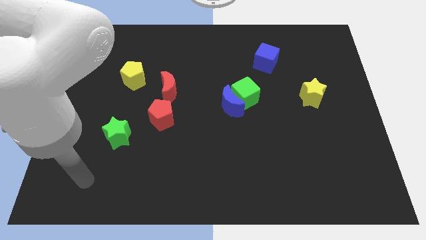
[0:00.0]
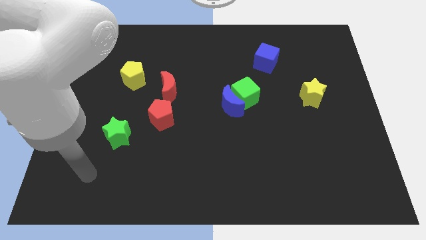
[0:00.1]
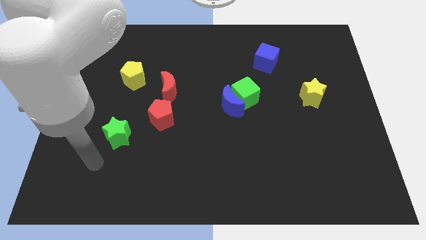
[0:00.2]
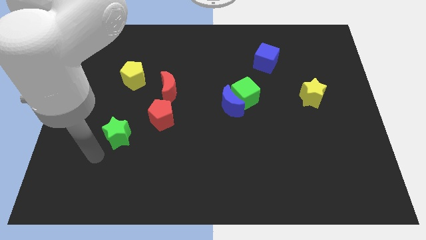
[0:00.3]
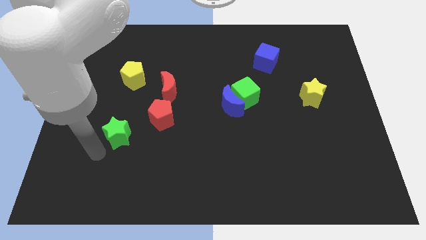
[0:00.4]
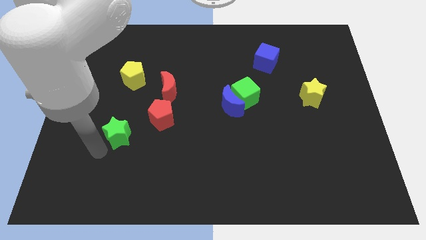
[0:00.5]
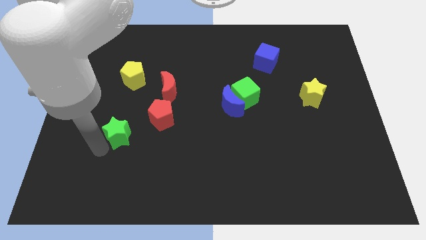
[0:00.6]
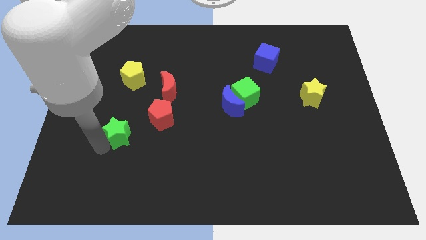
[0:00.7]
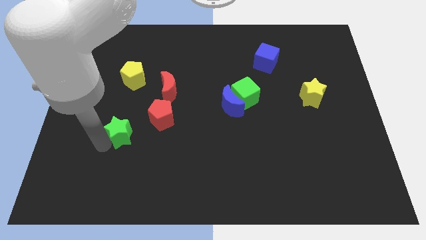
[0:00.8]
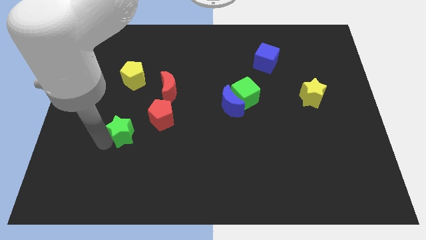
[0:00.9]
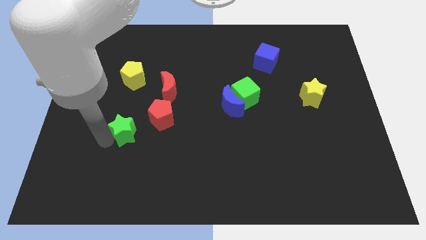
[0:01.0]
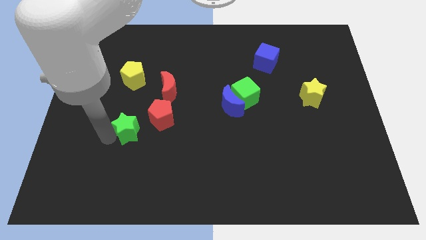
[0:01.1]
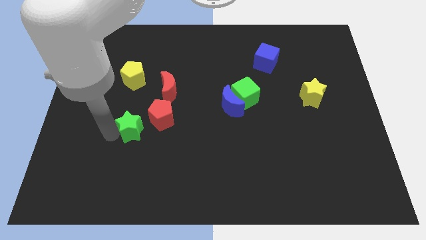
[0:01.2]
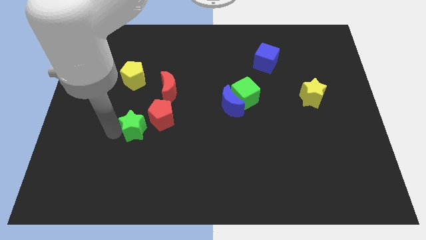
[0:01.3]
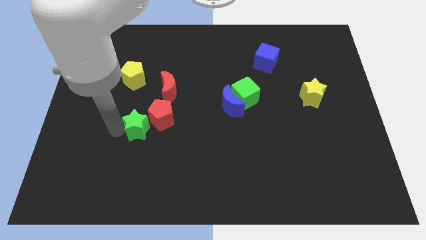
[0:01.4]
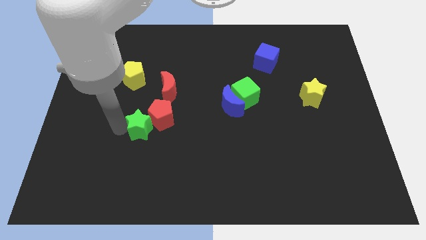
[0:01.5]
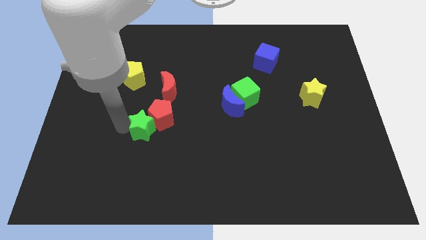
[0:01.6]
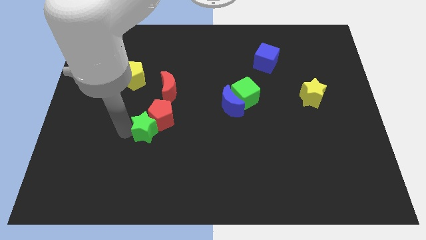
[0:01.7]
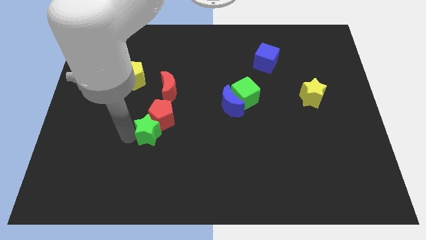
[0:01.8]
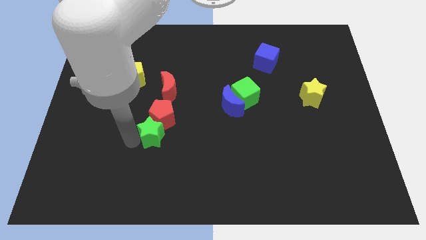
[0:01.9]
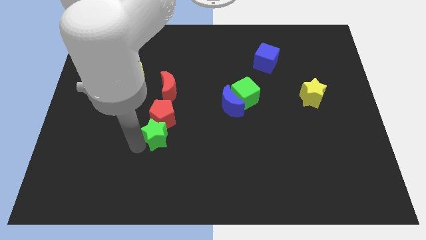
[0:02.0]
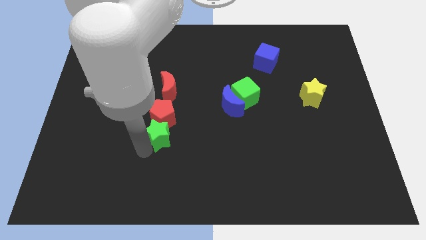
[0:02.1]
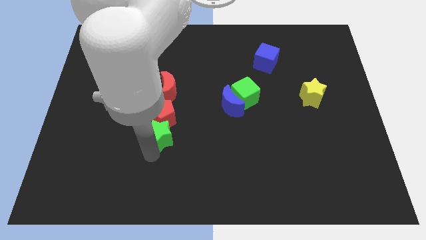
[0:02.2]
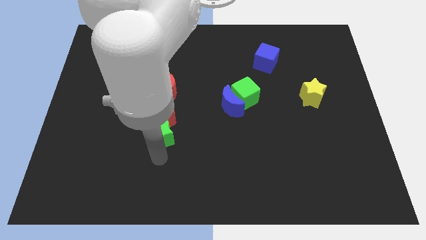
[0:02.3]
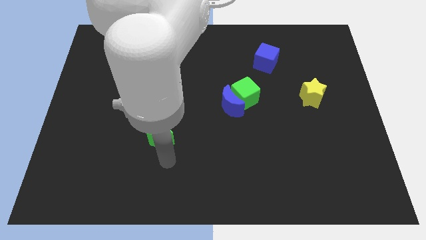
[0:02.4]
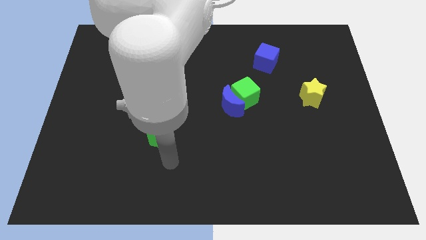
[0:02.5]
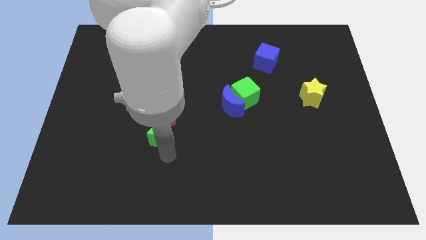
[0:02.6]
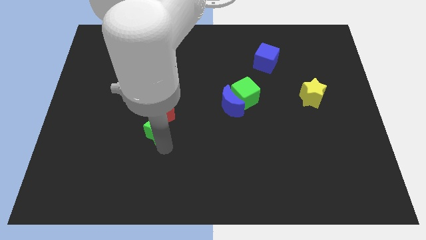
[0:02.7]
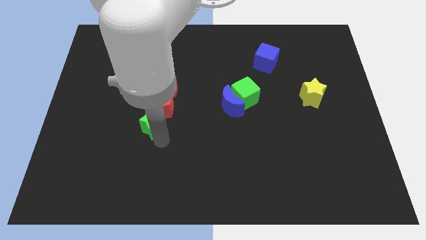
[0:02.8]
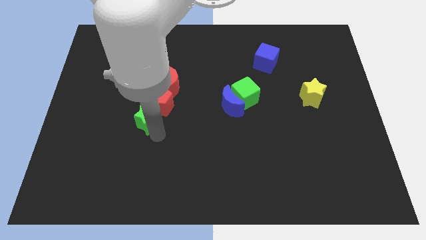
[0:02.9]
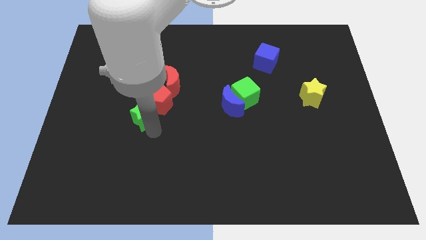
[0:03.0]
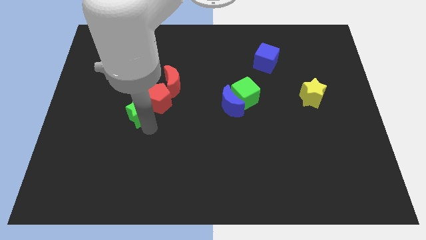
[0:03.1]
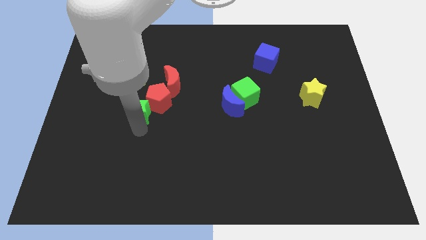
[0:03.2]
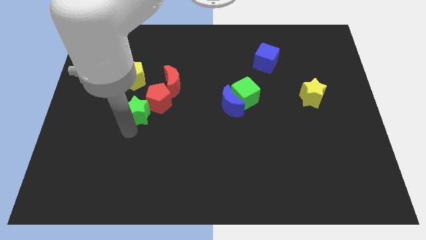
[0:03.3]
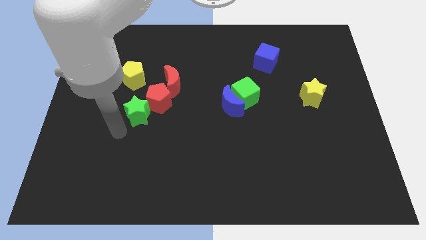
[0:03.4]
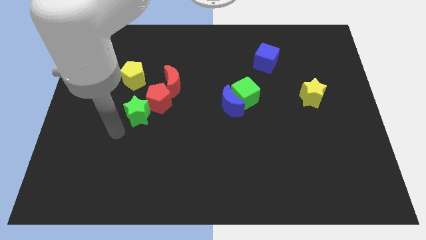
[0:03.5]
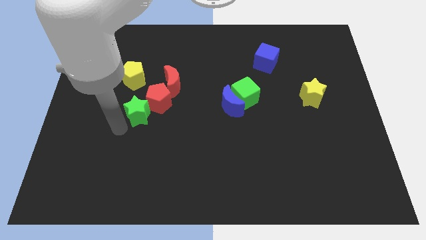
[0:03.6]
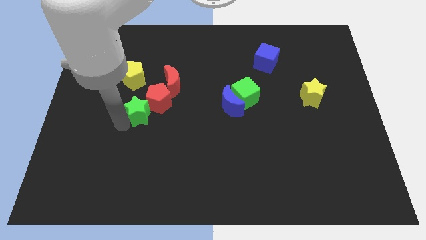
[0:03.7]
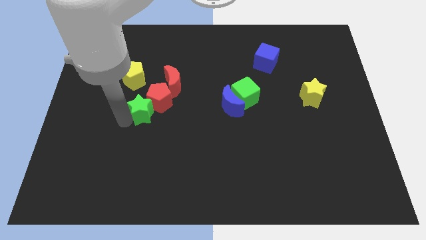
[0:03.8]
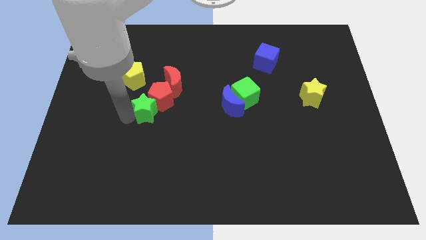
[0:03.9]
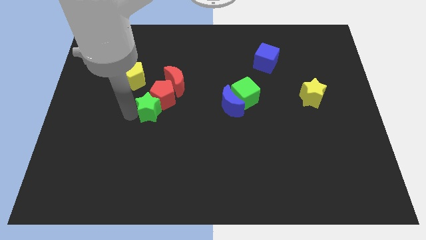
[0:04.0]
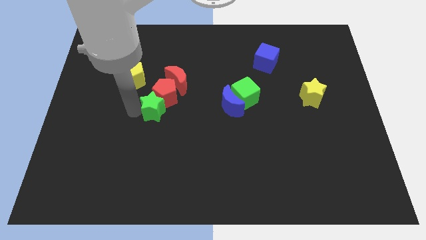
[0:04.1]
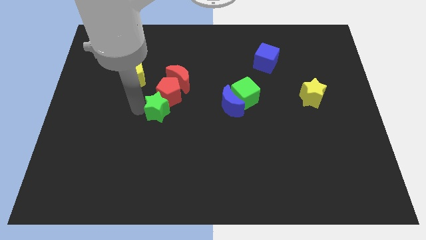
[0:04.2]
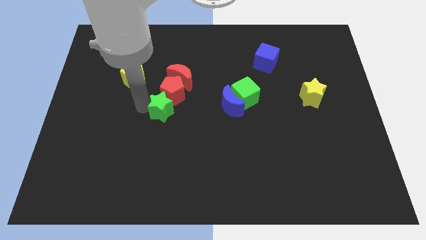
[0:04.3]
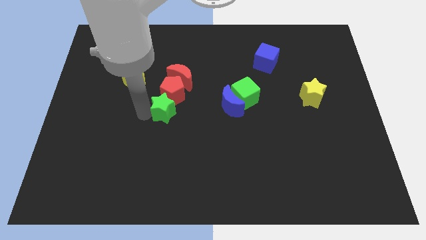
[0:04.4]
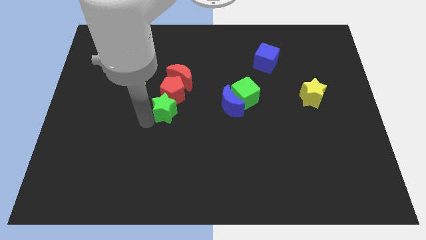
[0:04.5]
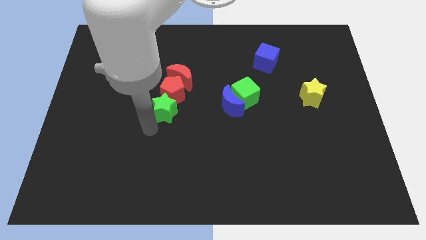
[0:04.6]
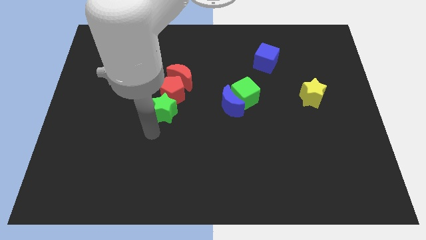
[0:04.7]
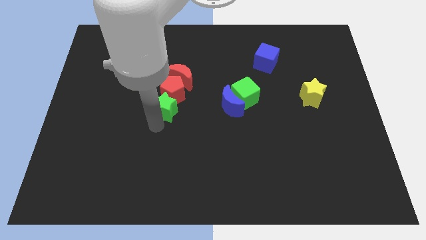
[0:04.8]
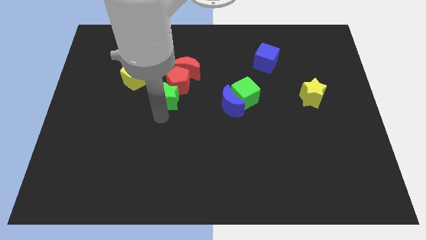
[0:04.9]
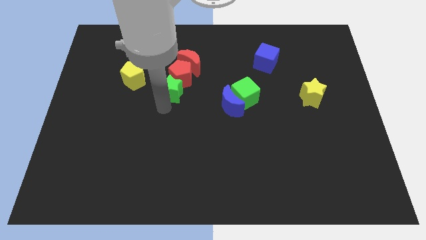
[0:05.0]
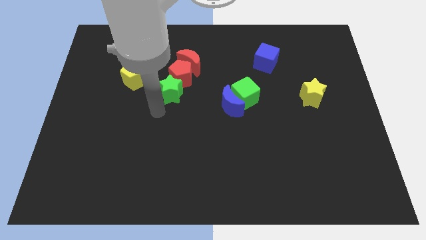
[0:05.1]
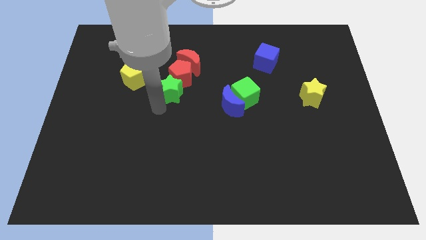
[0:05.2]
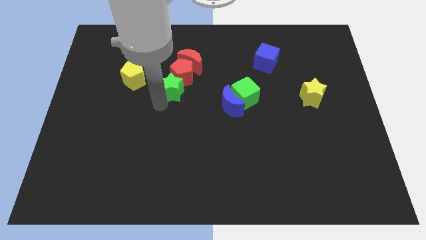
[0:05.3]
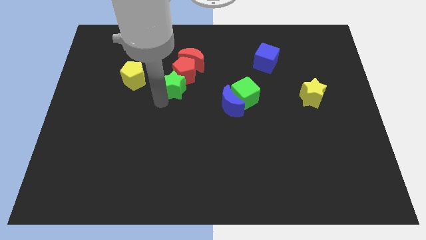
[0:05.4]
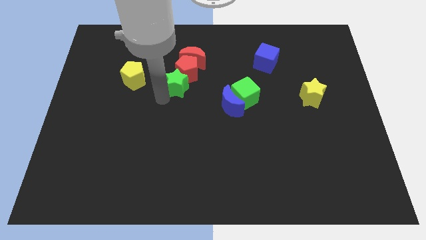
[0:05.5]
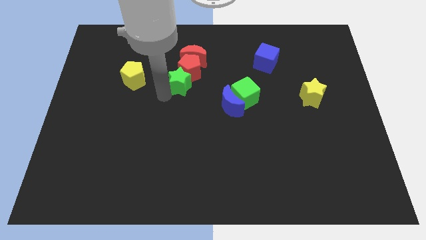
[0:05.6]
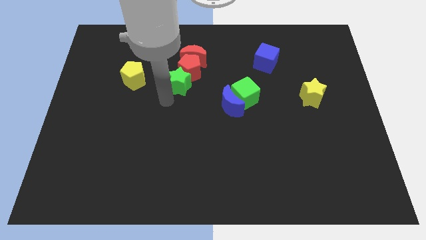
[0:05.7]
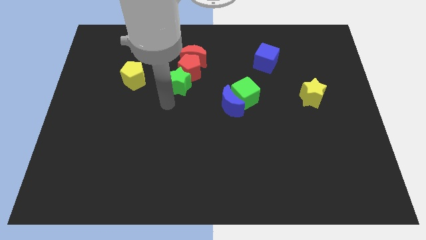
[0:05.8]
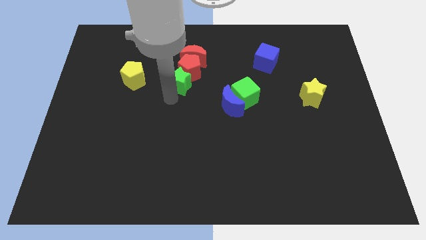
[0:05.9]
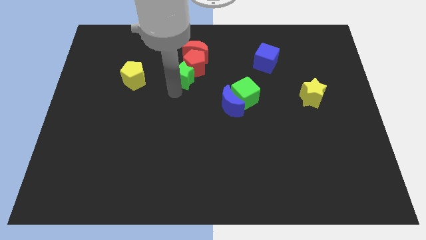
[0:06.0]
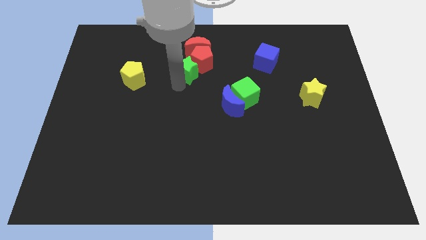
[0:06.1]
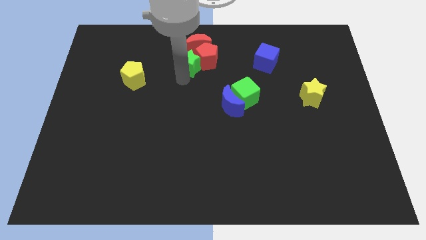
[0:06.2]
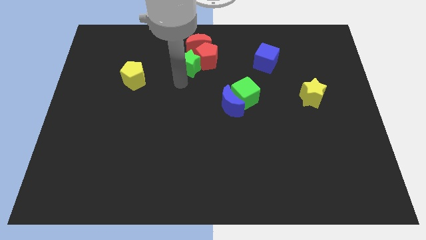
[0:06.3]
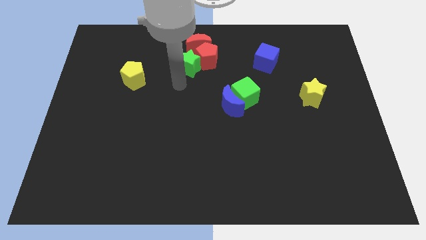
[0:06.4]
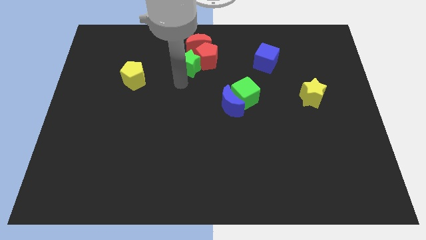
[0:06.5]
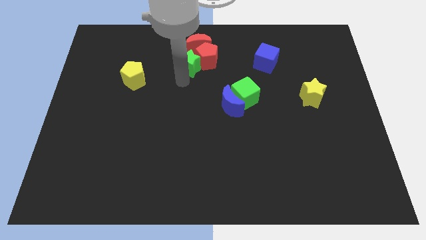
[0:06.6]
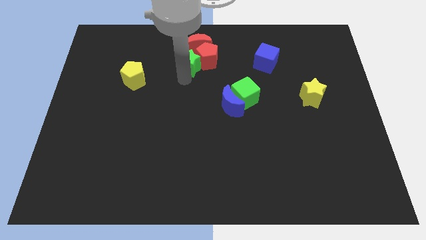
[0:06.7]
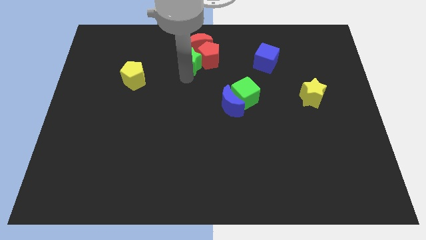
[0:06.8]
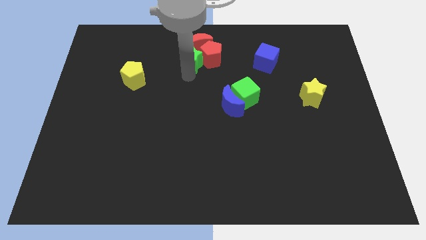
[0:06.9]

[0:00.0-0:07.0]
slide the green star next to the red moon

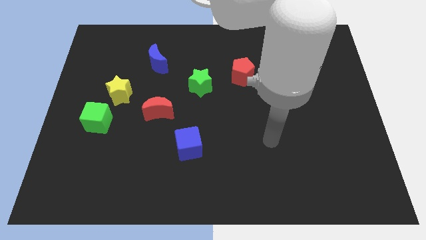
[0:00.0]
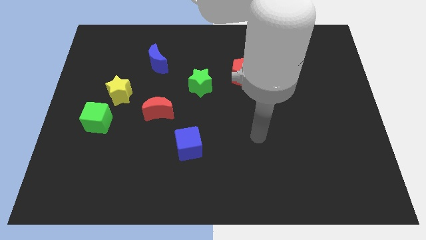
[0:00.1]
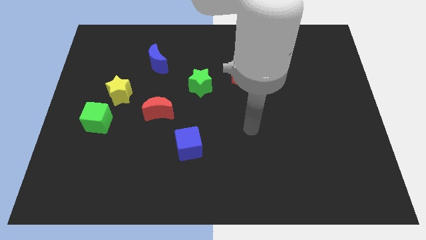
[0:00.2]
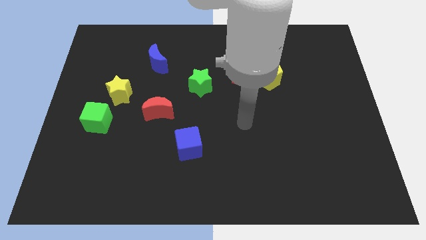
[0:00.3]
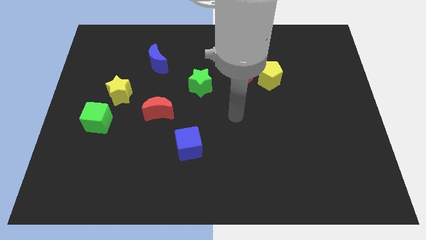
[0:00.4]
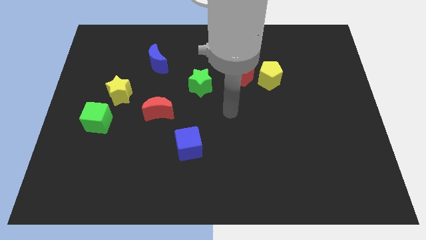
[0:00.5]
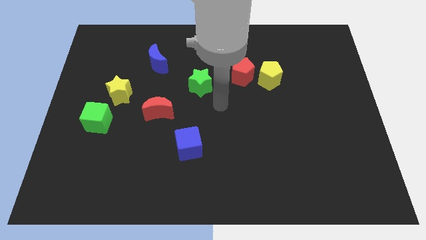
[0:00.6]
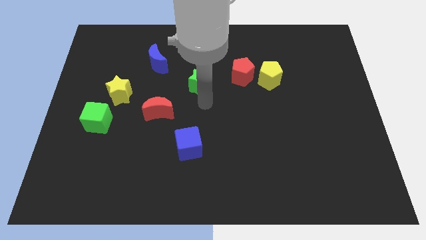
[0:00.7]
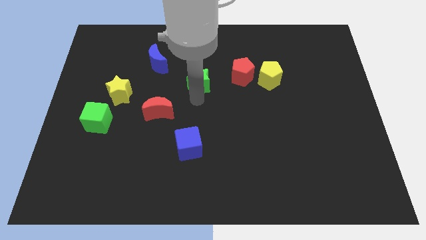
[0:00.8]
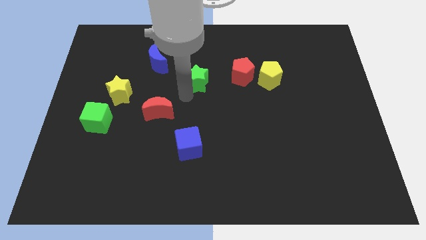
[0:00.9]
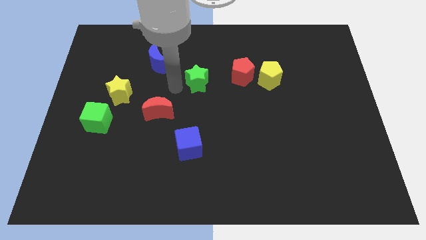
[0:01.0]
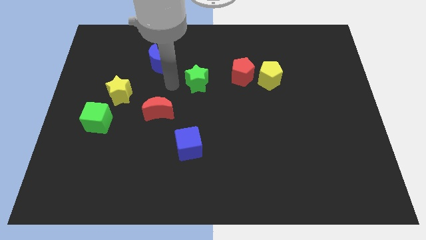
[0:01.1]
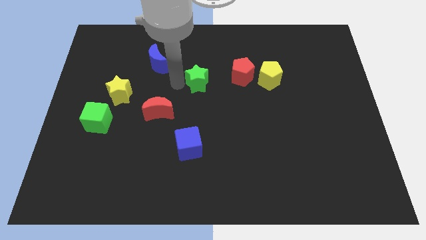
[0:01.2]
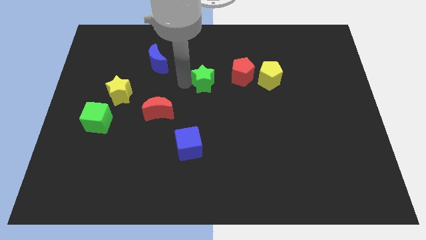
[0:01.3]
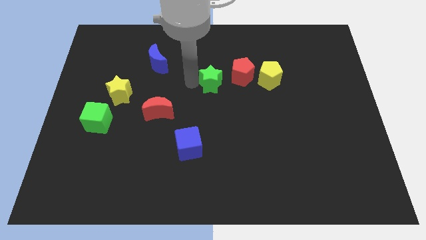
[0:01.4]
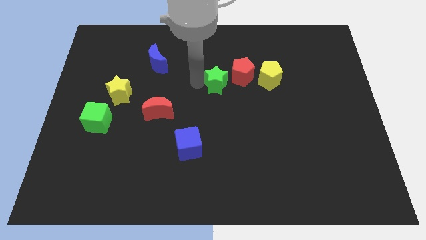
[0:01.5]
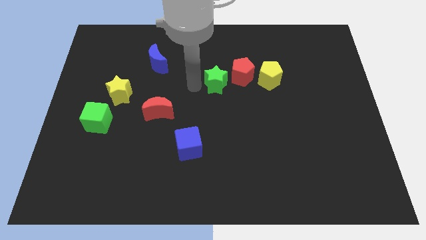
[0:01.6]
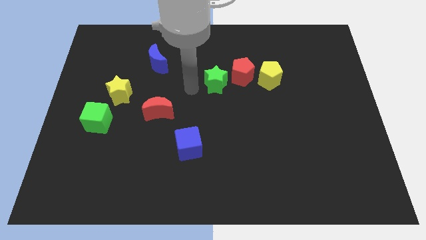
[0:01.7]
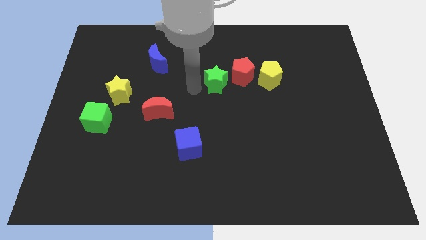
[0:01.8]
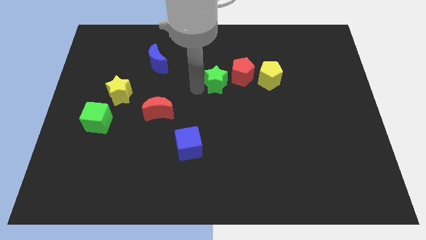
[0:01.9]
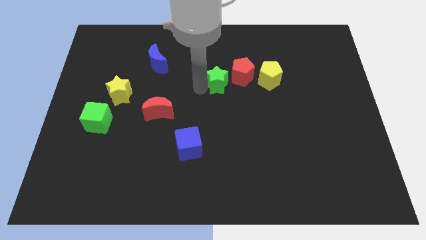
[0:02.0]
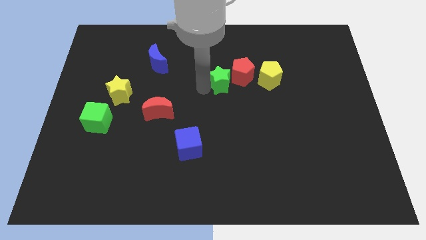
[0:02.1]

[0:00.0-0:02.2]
push the green star close to the red pentagon
